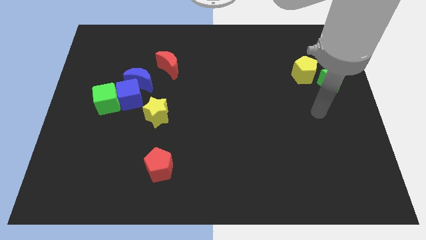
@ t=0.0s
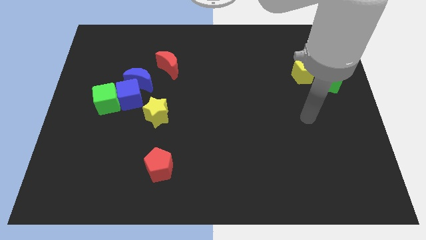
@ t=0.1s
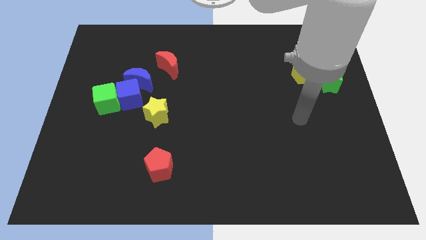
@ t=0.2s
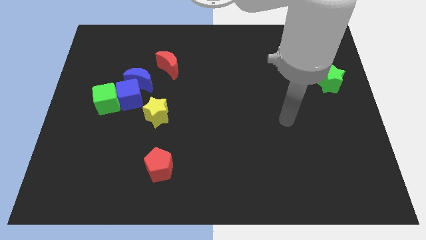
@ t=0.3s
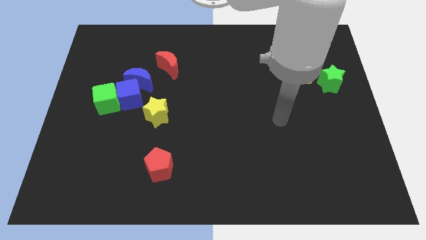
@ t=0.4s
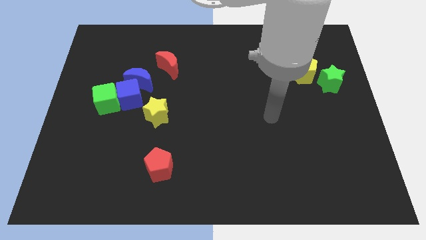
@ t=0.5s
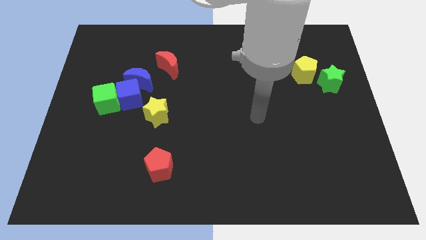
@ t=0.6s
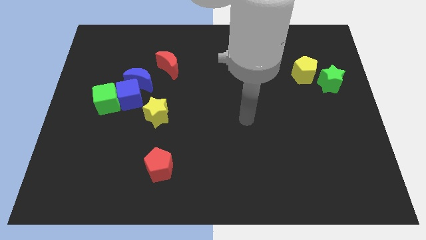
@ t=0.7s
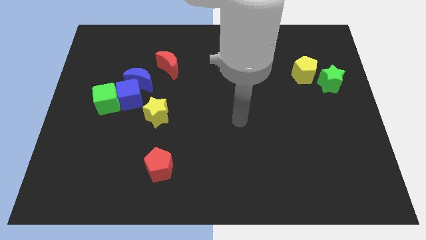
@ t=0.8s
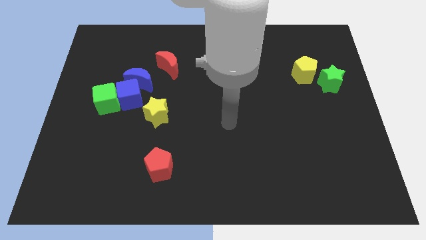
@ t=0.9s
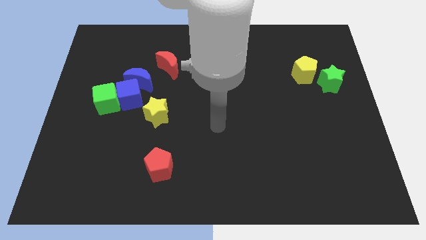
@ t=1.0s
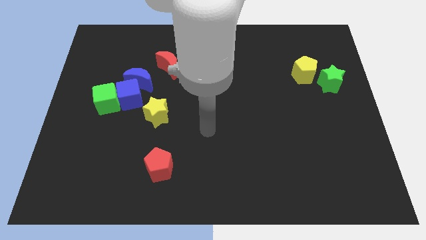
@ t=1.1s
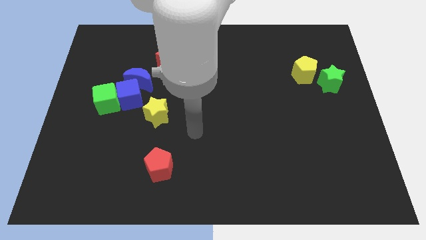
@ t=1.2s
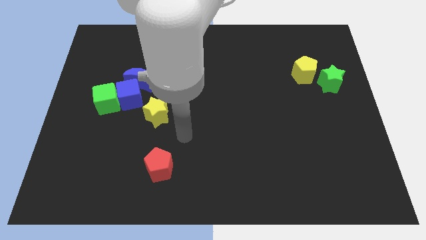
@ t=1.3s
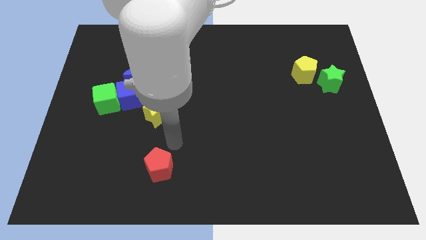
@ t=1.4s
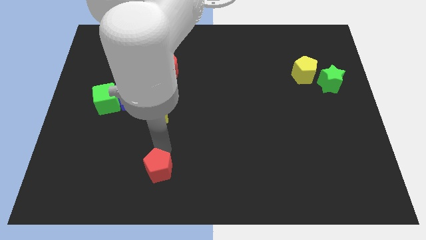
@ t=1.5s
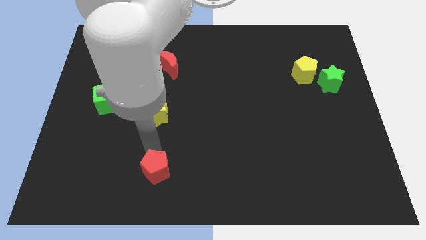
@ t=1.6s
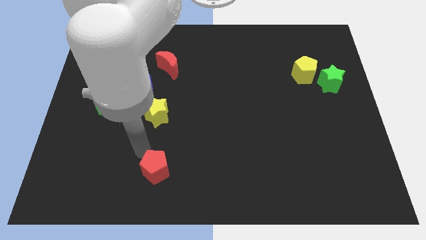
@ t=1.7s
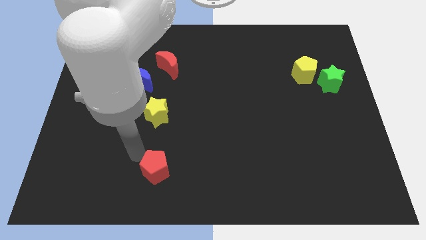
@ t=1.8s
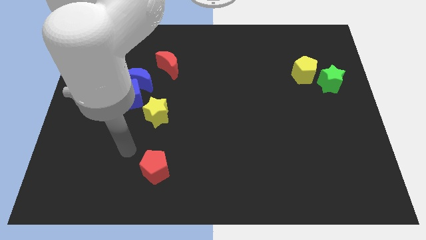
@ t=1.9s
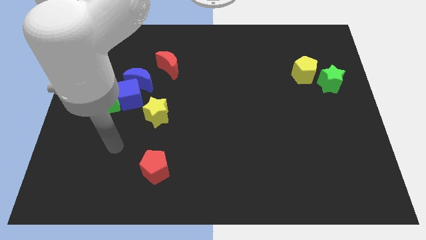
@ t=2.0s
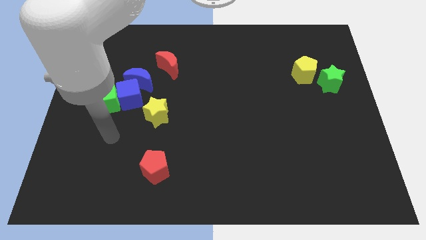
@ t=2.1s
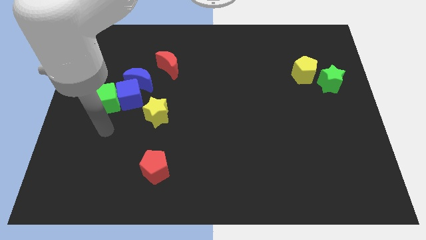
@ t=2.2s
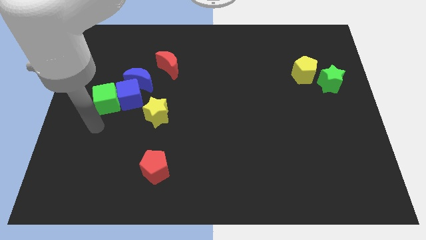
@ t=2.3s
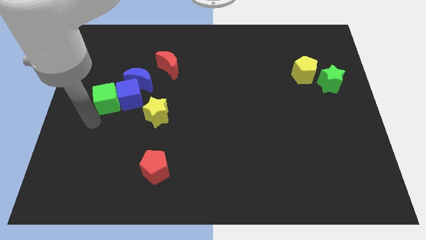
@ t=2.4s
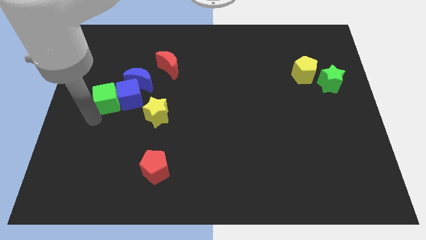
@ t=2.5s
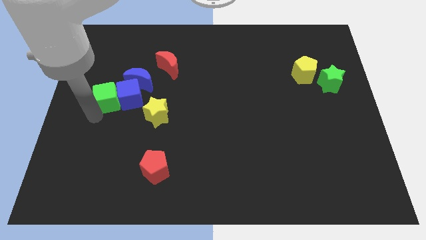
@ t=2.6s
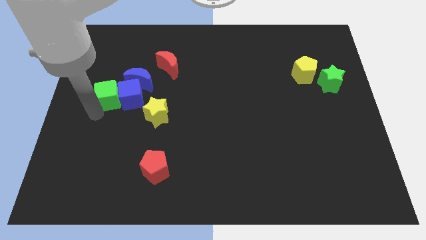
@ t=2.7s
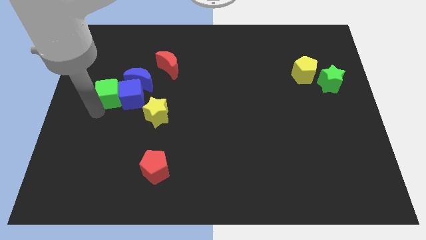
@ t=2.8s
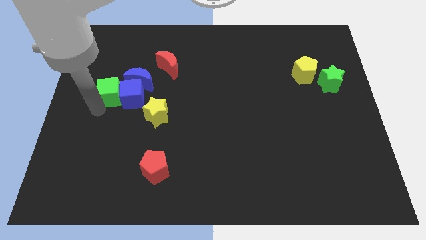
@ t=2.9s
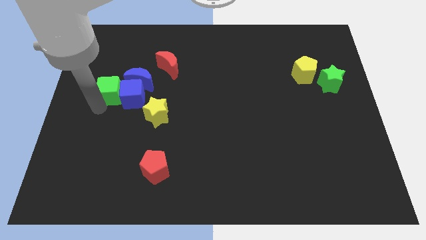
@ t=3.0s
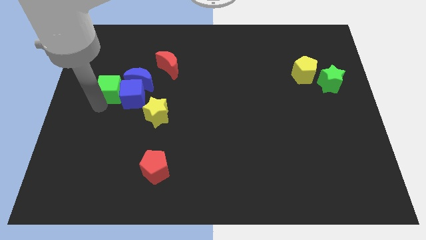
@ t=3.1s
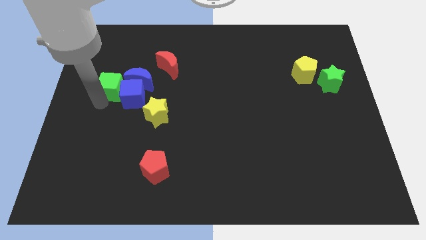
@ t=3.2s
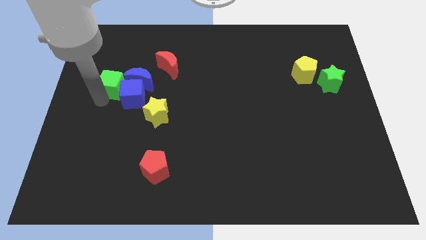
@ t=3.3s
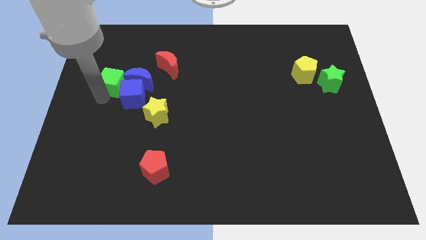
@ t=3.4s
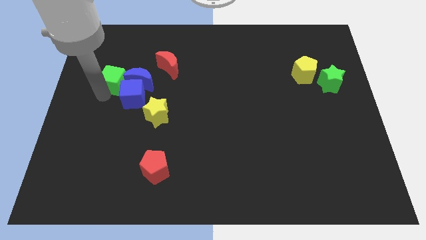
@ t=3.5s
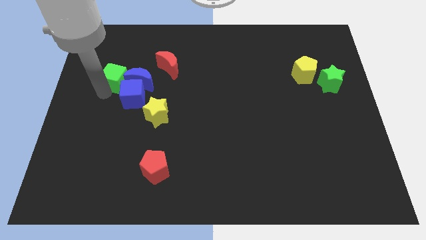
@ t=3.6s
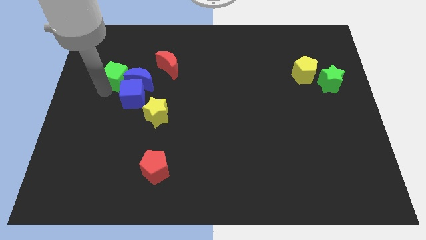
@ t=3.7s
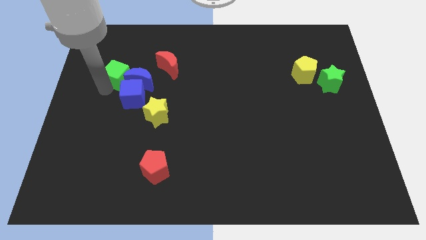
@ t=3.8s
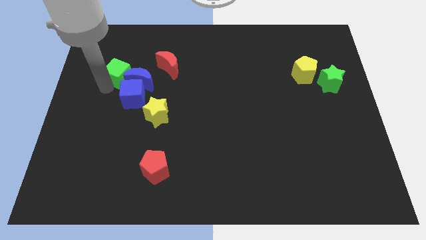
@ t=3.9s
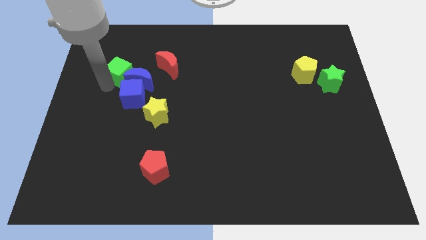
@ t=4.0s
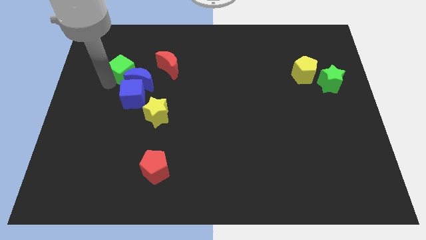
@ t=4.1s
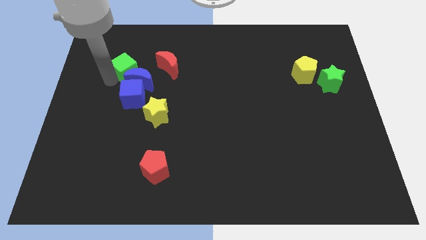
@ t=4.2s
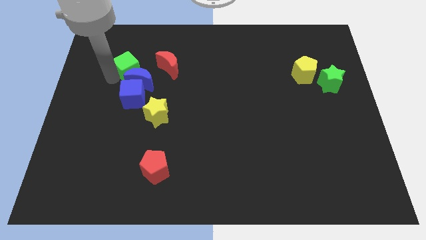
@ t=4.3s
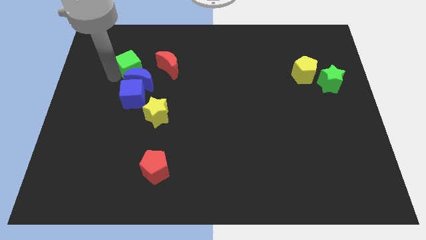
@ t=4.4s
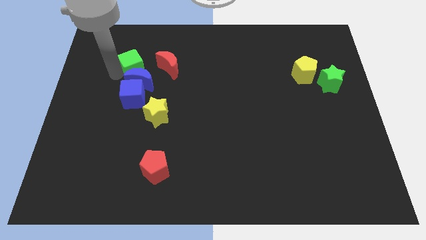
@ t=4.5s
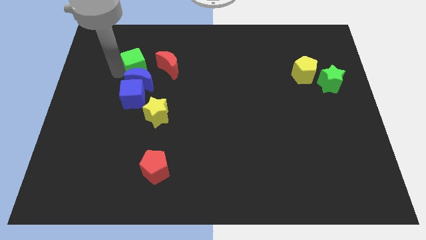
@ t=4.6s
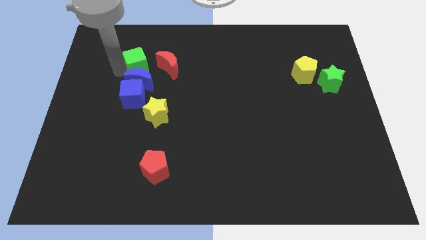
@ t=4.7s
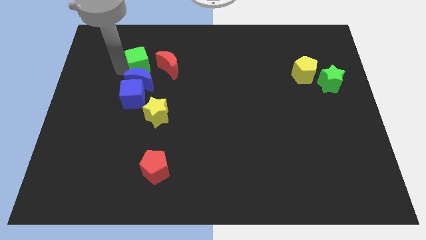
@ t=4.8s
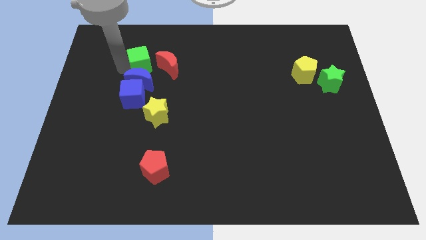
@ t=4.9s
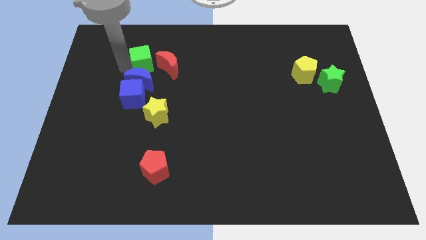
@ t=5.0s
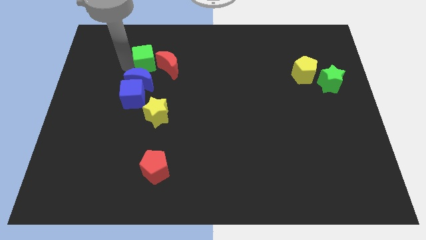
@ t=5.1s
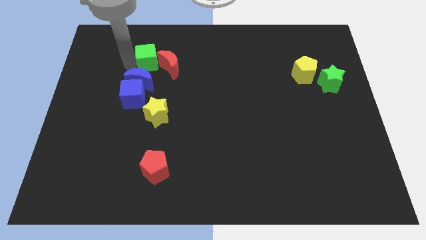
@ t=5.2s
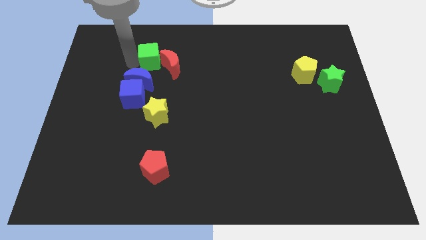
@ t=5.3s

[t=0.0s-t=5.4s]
slide the green cube towards the red moon

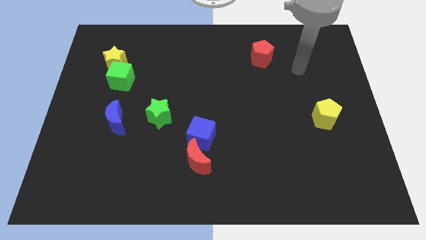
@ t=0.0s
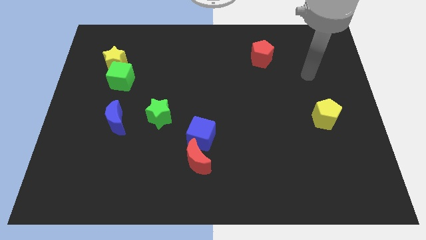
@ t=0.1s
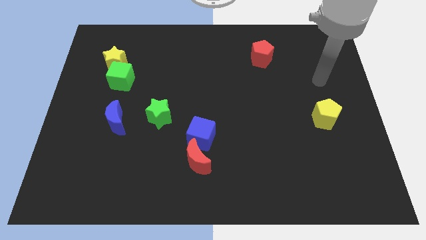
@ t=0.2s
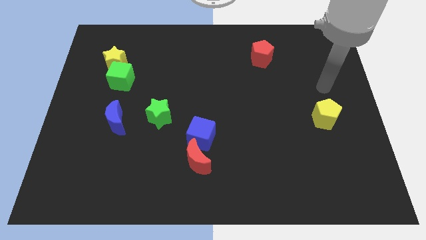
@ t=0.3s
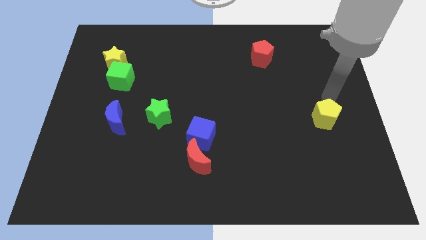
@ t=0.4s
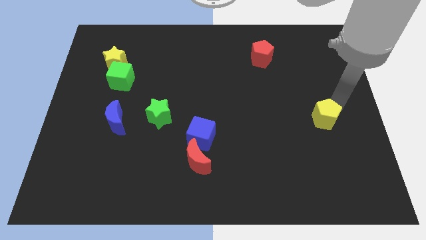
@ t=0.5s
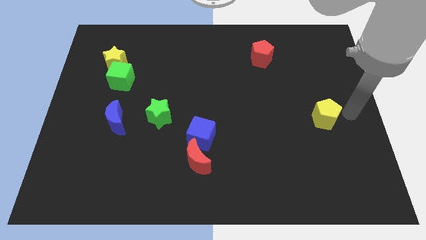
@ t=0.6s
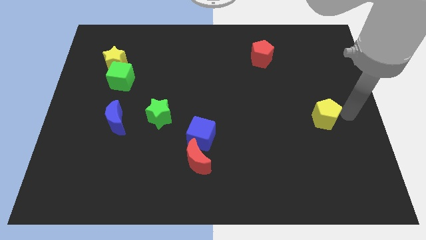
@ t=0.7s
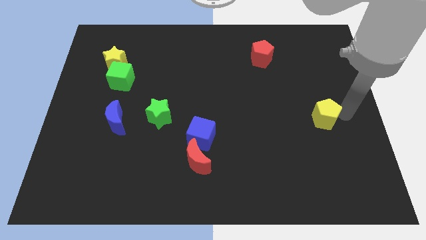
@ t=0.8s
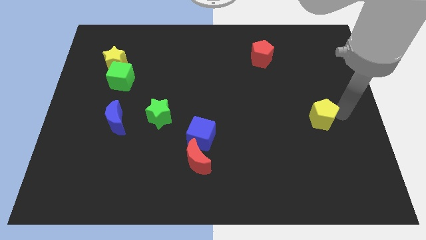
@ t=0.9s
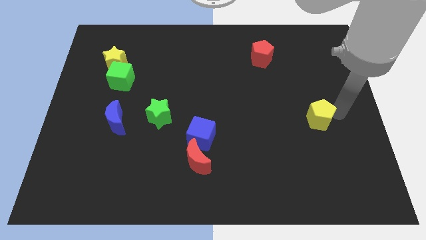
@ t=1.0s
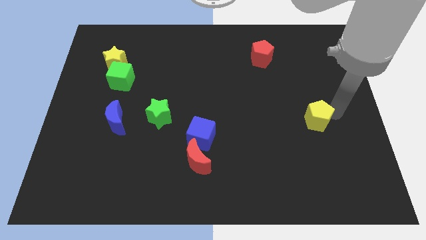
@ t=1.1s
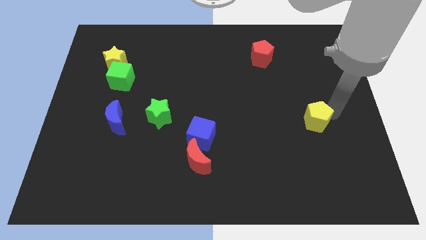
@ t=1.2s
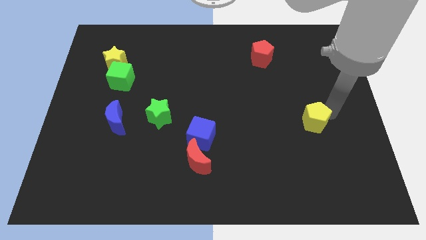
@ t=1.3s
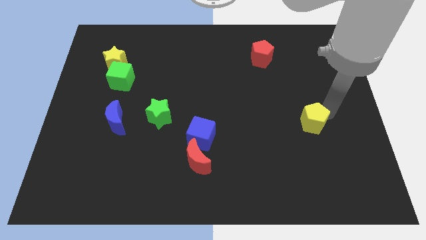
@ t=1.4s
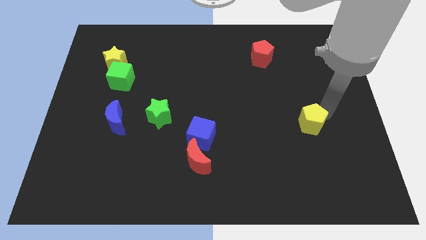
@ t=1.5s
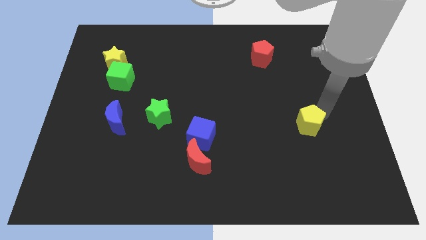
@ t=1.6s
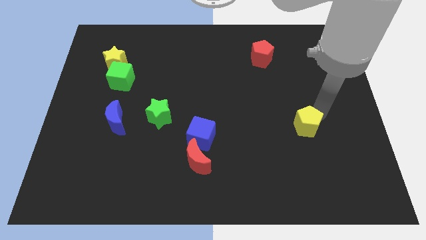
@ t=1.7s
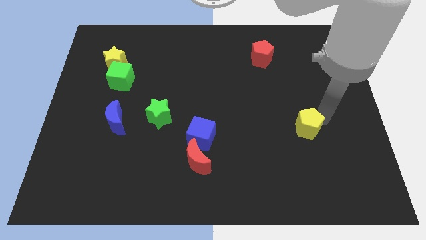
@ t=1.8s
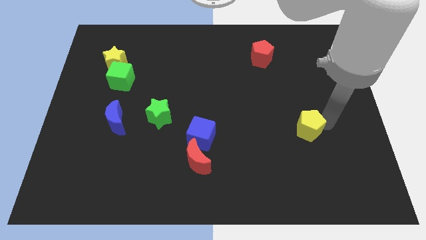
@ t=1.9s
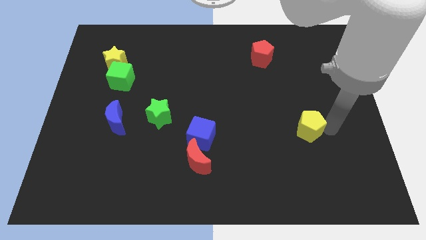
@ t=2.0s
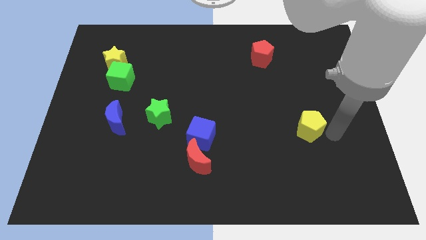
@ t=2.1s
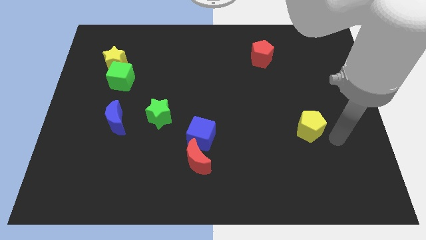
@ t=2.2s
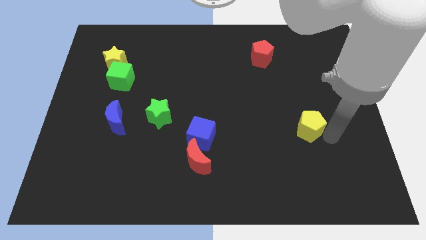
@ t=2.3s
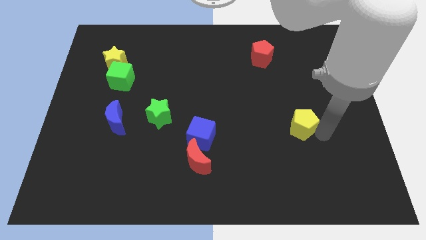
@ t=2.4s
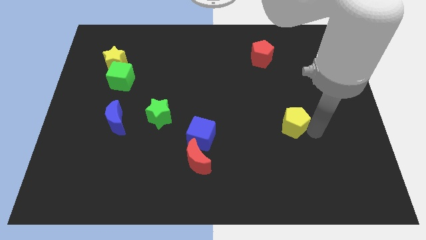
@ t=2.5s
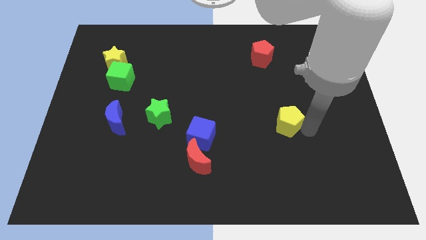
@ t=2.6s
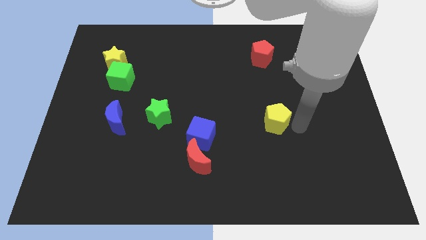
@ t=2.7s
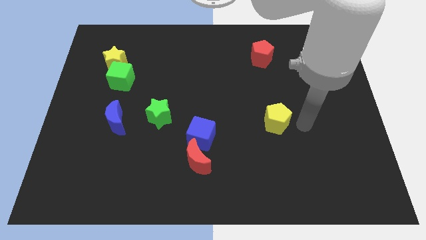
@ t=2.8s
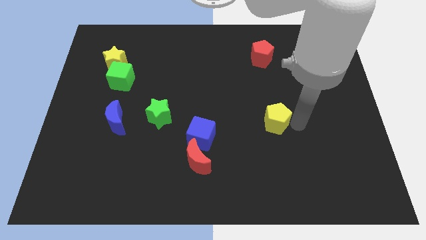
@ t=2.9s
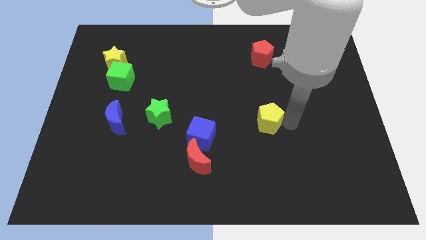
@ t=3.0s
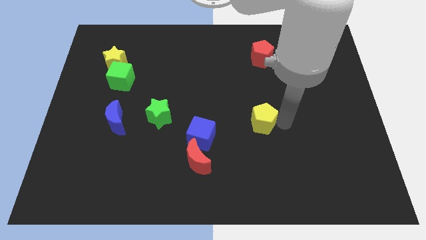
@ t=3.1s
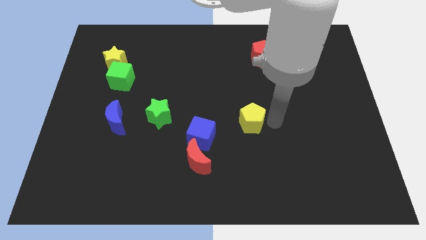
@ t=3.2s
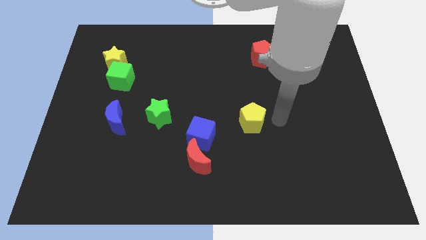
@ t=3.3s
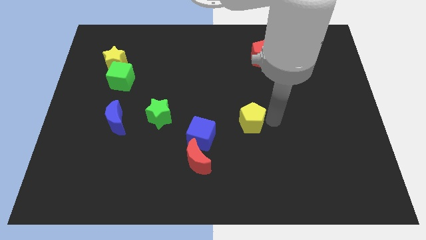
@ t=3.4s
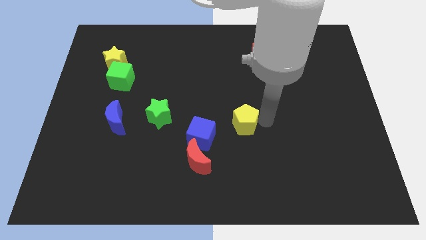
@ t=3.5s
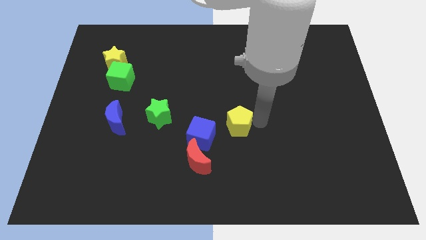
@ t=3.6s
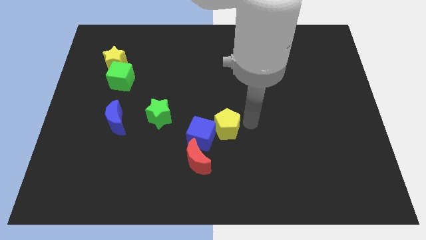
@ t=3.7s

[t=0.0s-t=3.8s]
push the yellow pentagon close to the blue cube
